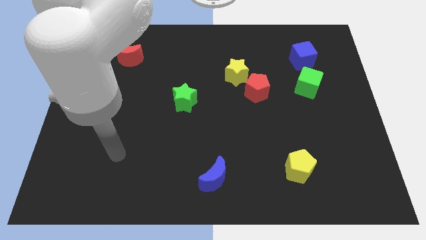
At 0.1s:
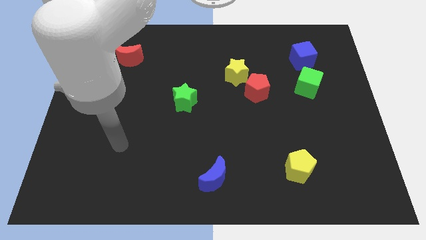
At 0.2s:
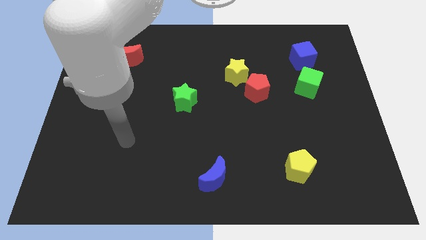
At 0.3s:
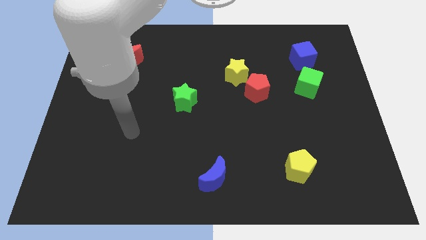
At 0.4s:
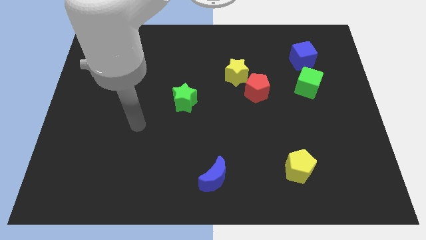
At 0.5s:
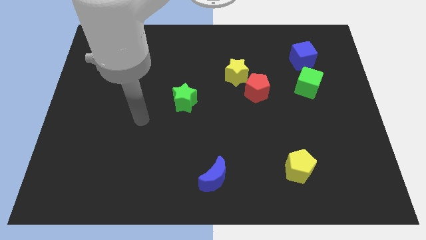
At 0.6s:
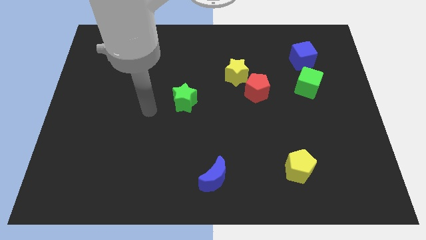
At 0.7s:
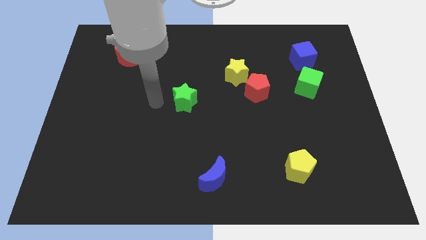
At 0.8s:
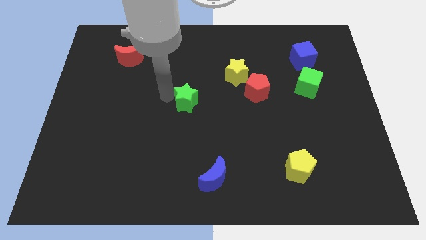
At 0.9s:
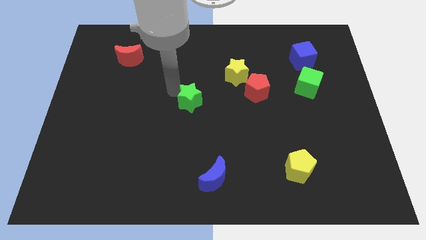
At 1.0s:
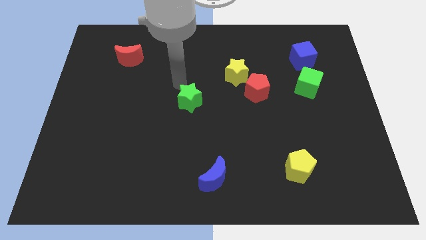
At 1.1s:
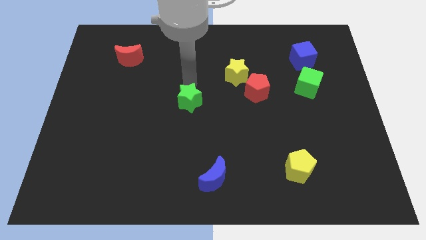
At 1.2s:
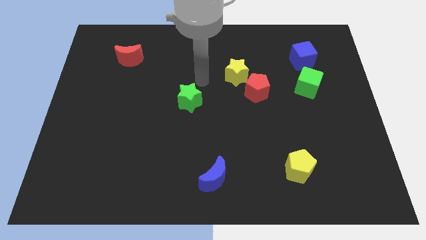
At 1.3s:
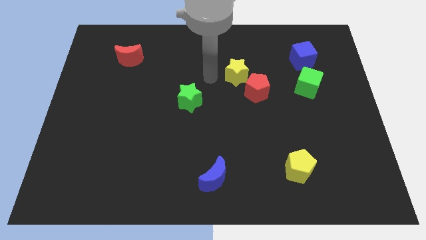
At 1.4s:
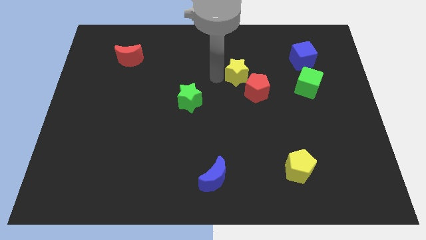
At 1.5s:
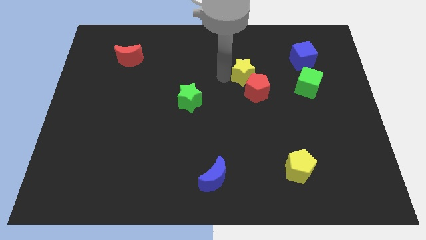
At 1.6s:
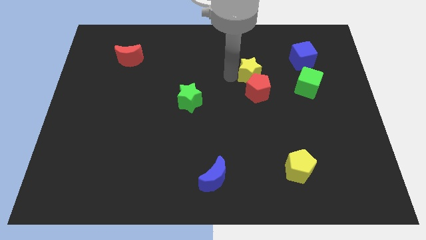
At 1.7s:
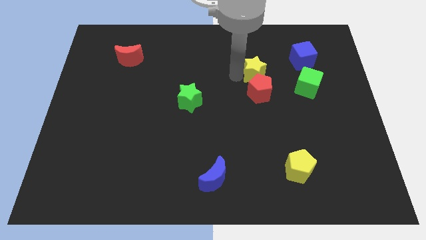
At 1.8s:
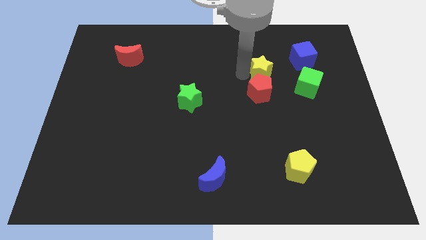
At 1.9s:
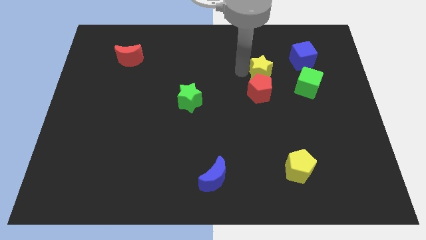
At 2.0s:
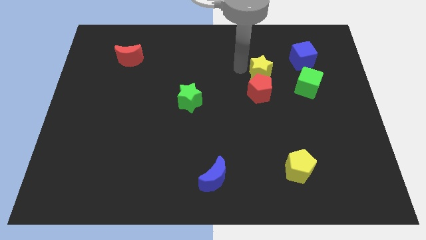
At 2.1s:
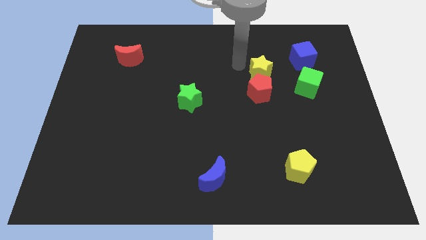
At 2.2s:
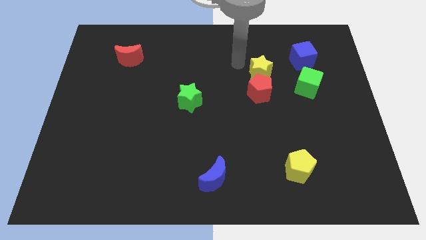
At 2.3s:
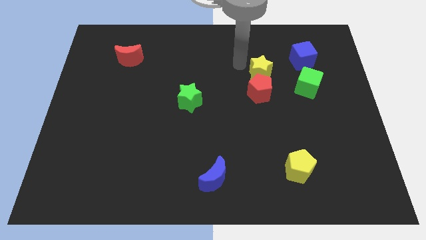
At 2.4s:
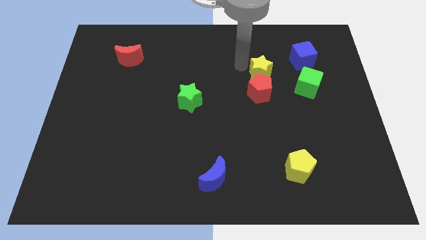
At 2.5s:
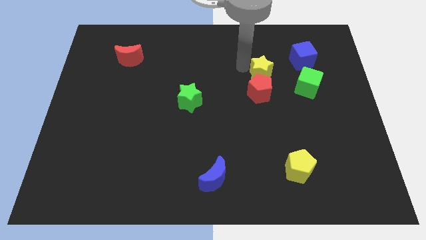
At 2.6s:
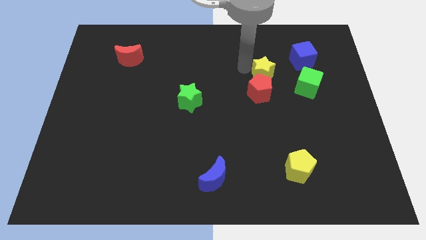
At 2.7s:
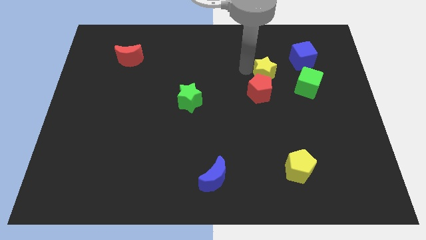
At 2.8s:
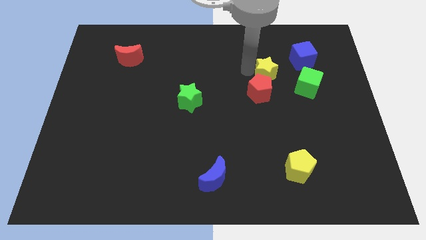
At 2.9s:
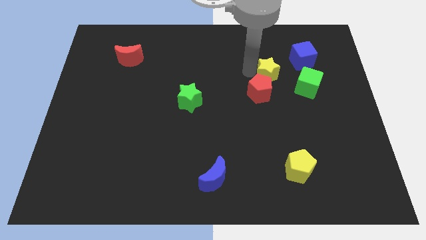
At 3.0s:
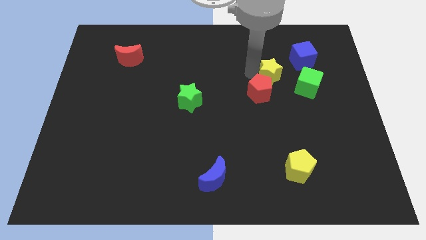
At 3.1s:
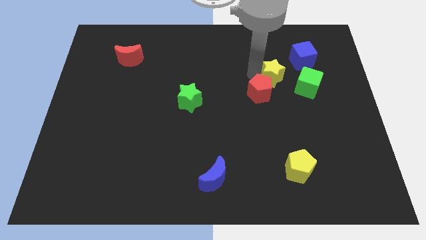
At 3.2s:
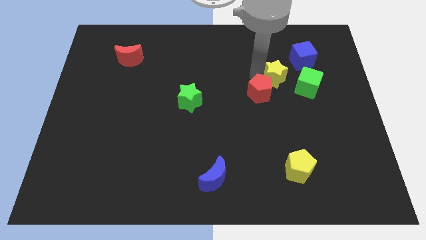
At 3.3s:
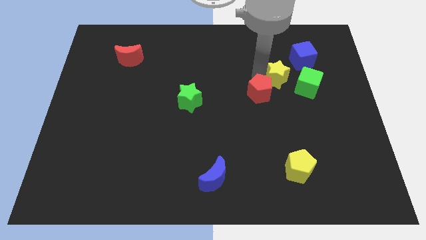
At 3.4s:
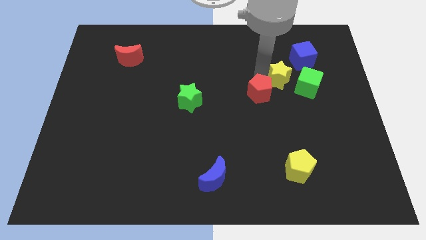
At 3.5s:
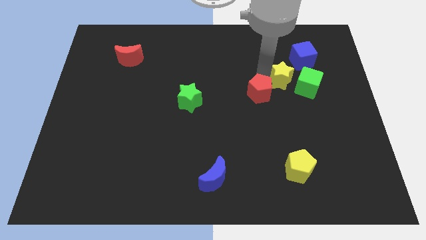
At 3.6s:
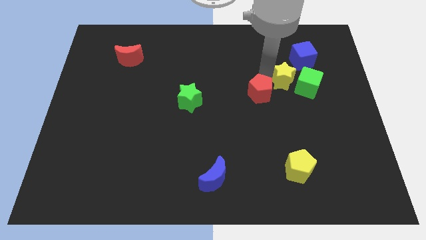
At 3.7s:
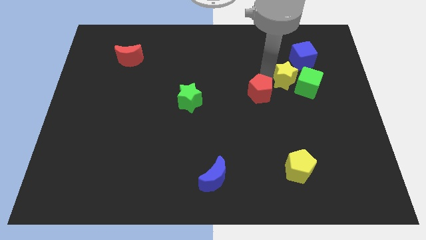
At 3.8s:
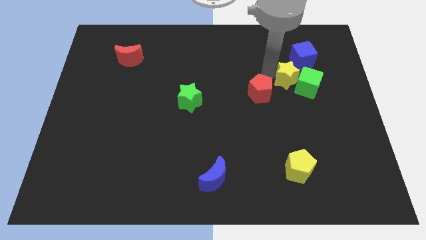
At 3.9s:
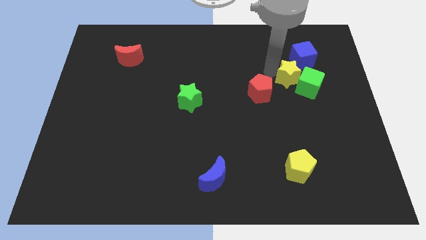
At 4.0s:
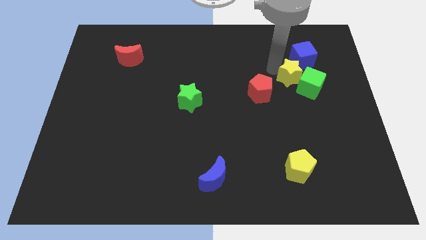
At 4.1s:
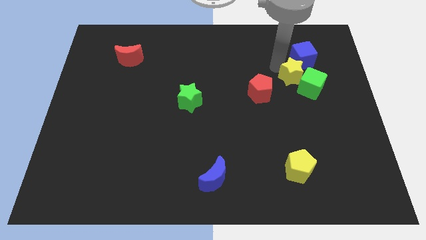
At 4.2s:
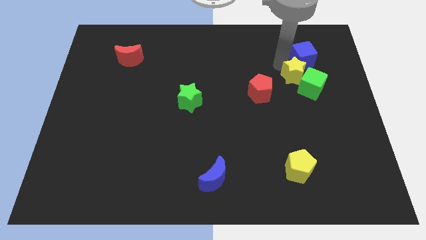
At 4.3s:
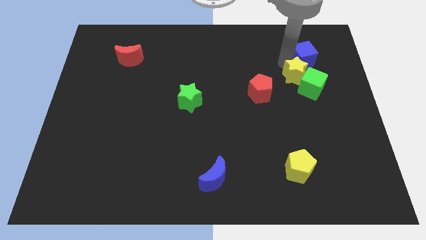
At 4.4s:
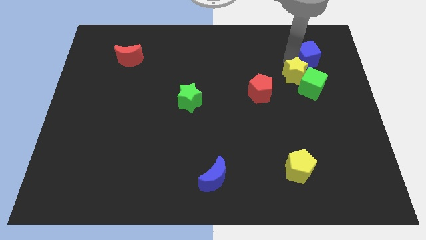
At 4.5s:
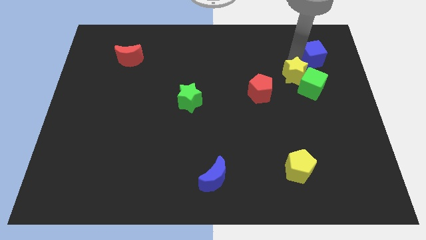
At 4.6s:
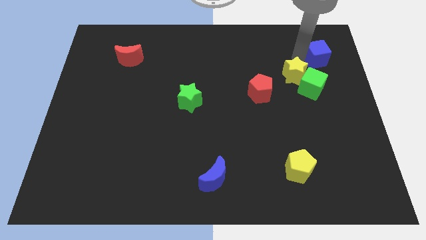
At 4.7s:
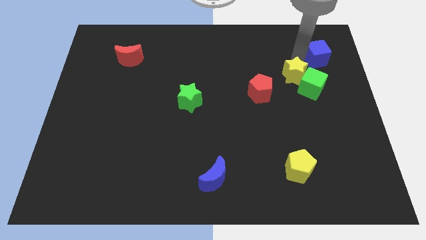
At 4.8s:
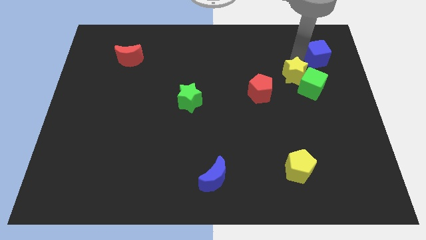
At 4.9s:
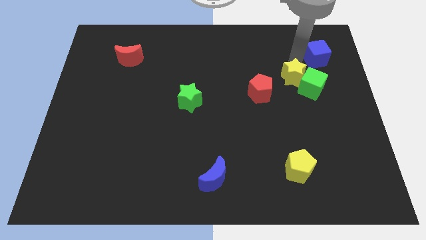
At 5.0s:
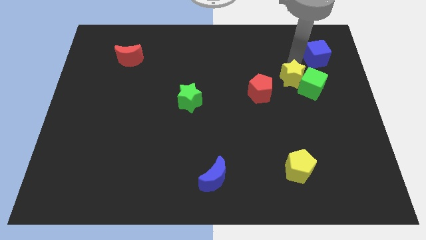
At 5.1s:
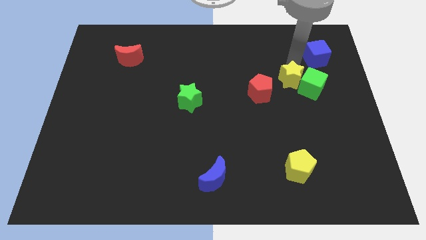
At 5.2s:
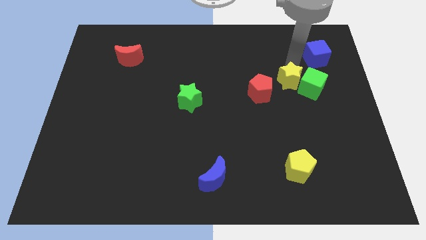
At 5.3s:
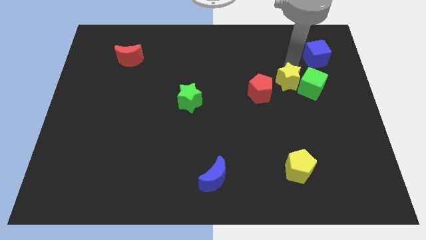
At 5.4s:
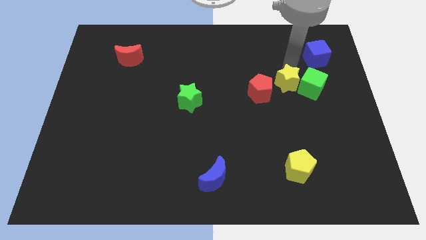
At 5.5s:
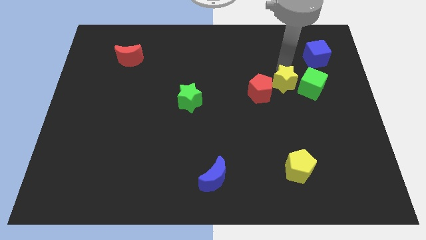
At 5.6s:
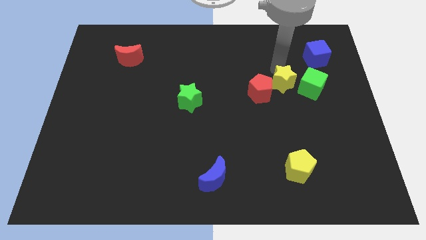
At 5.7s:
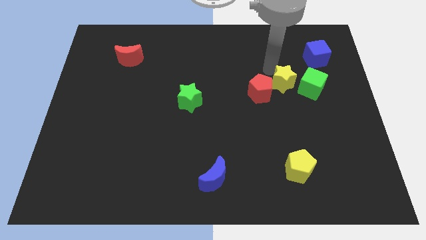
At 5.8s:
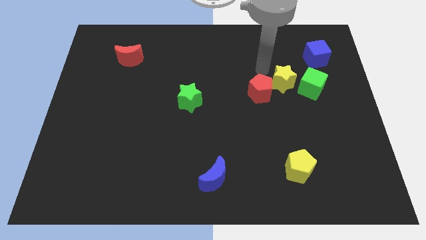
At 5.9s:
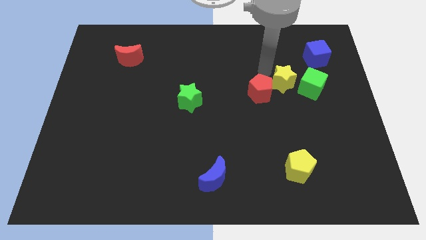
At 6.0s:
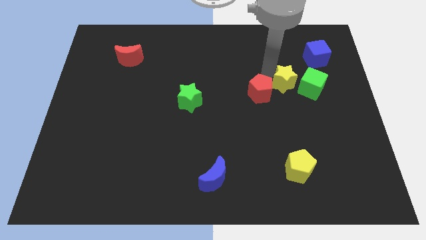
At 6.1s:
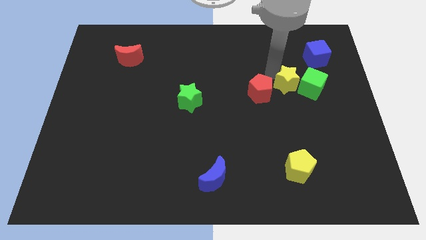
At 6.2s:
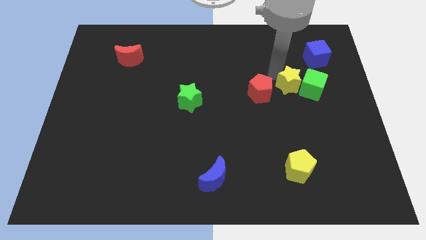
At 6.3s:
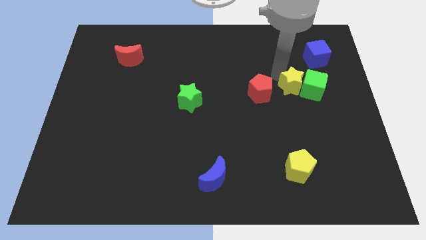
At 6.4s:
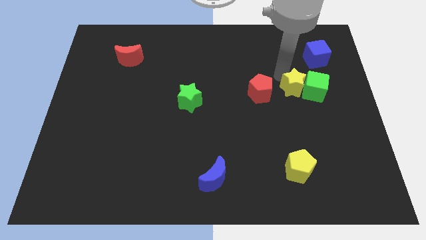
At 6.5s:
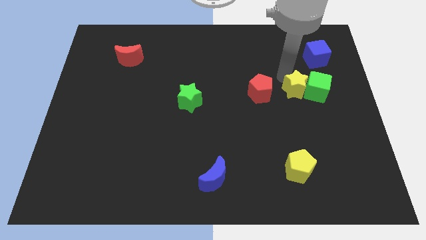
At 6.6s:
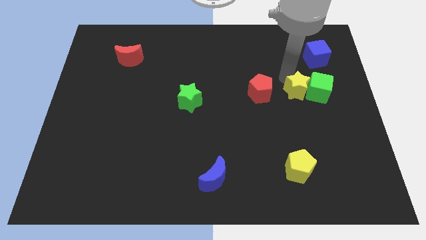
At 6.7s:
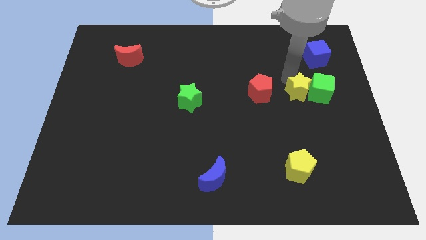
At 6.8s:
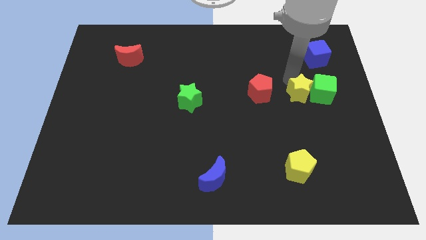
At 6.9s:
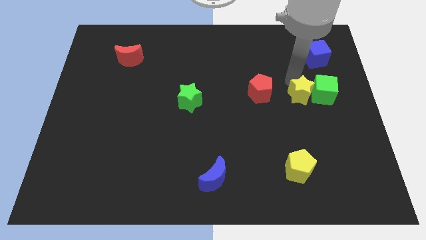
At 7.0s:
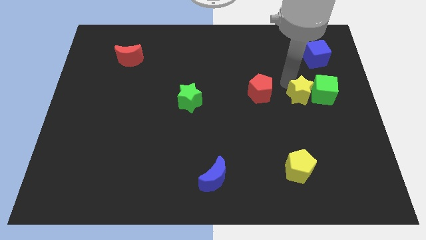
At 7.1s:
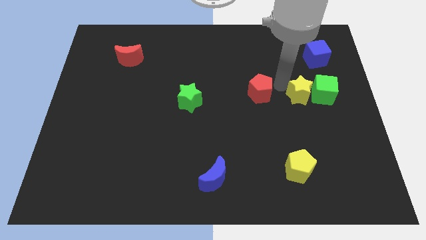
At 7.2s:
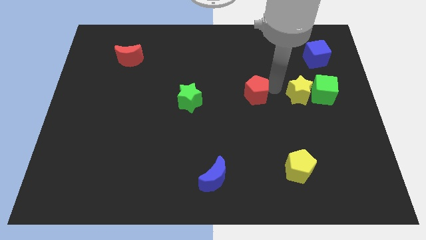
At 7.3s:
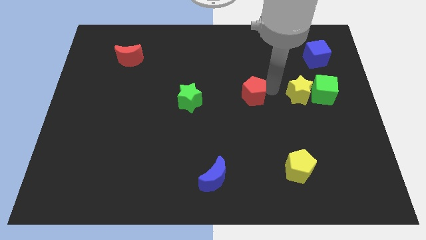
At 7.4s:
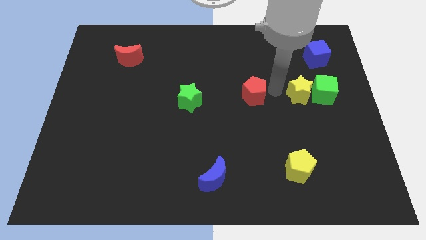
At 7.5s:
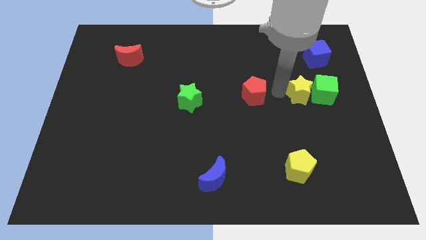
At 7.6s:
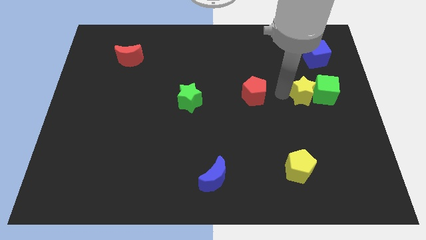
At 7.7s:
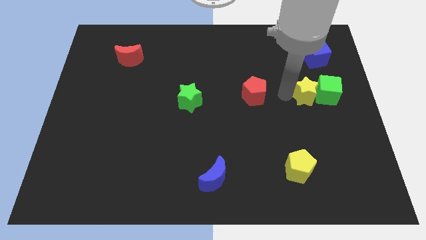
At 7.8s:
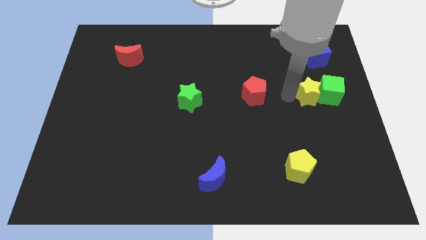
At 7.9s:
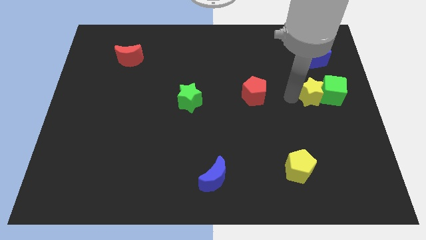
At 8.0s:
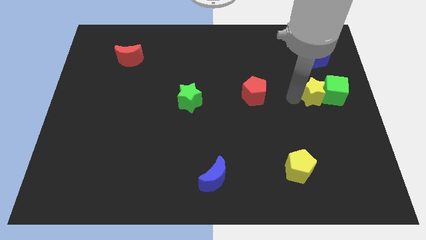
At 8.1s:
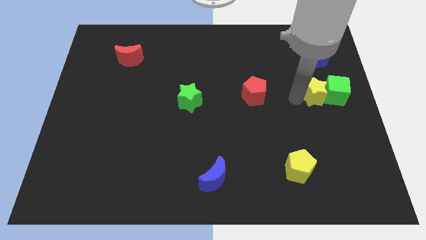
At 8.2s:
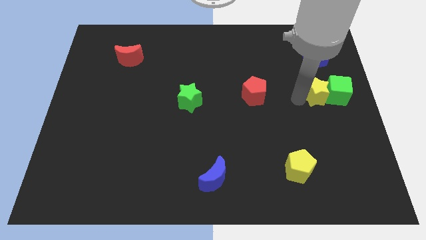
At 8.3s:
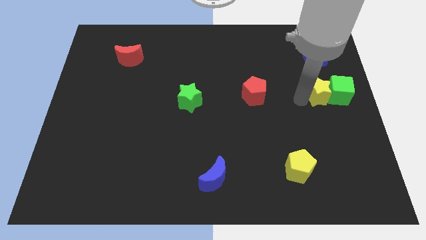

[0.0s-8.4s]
push the yellow star to the center right
